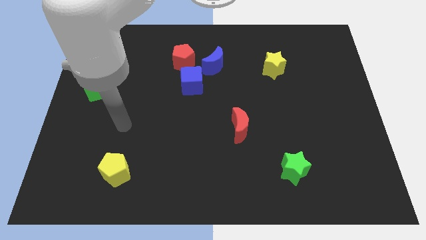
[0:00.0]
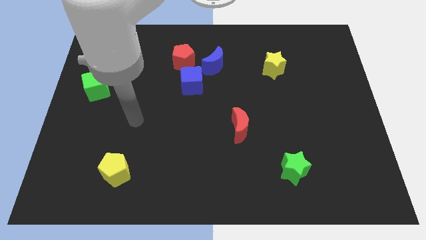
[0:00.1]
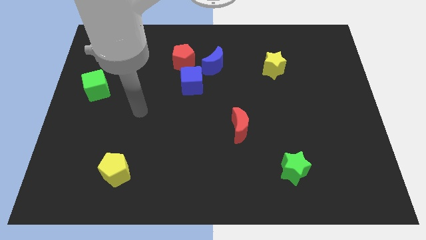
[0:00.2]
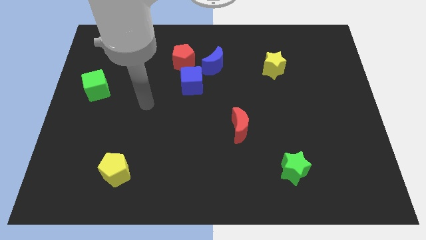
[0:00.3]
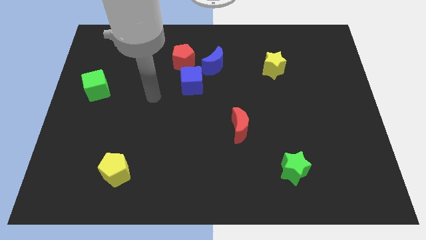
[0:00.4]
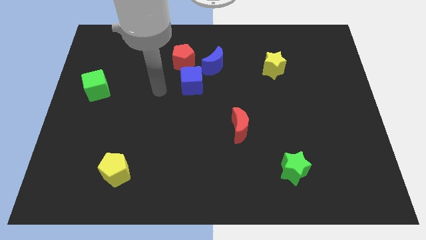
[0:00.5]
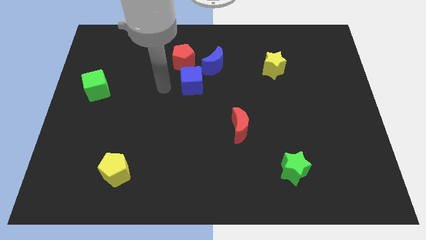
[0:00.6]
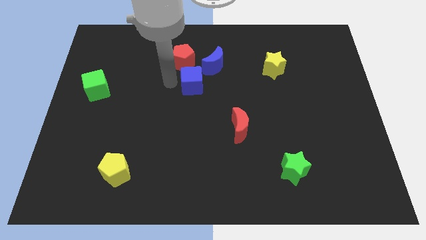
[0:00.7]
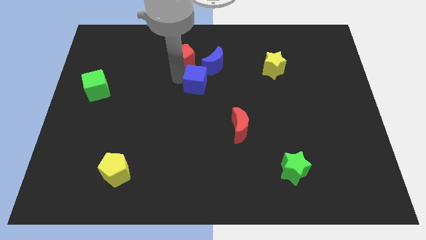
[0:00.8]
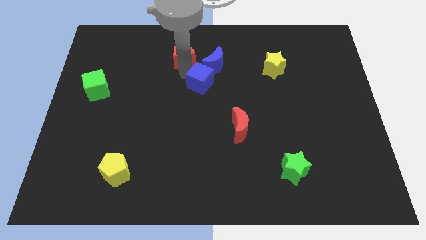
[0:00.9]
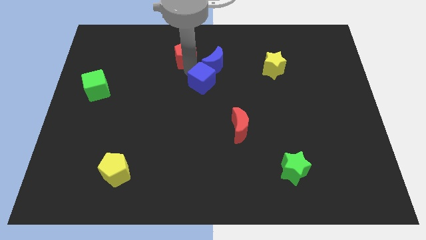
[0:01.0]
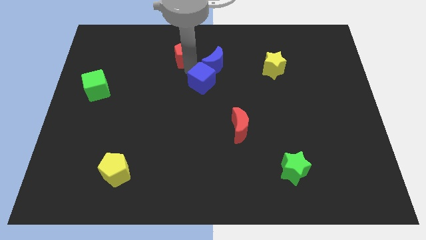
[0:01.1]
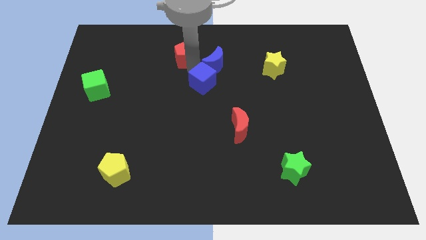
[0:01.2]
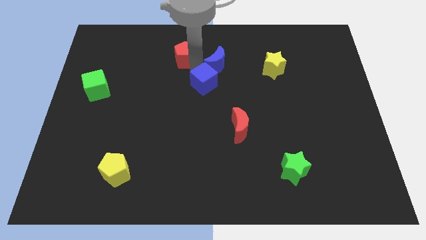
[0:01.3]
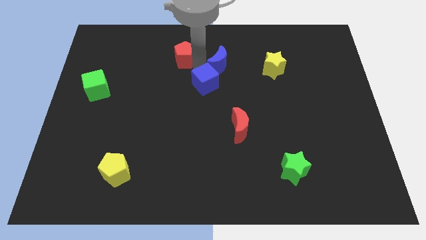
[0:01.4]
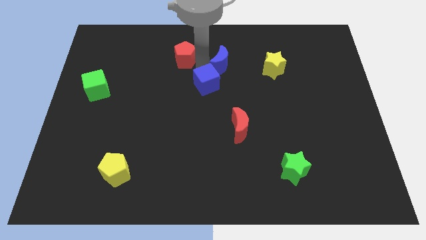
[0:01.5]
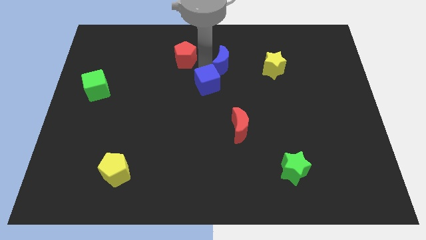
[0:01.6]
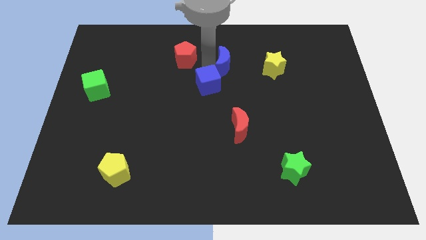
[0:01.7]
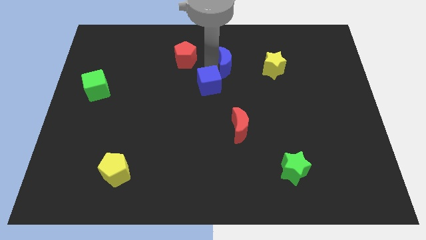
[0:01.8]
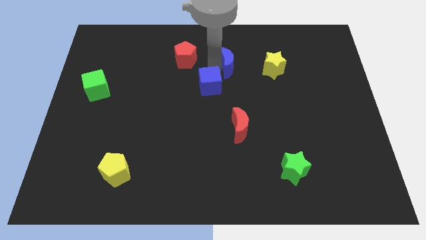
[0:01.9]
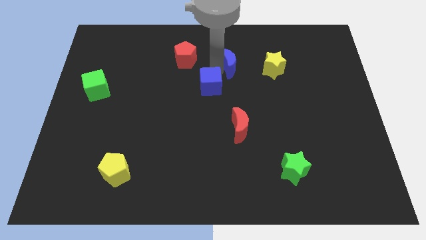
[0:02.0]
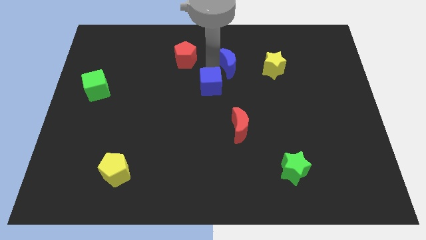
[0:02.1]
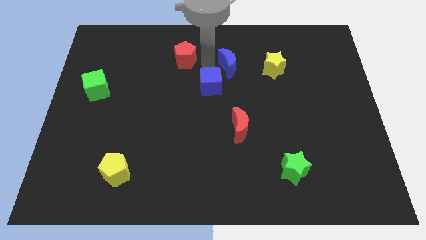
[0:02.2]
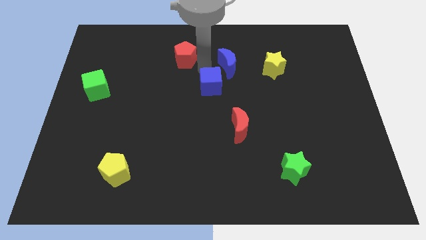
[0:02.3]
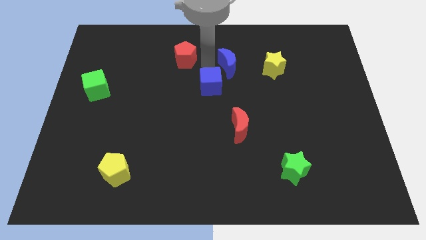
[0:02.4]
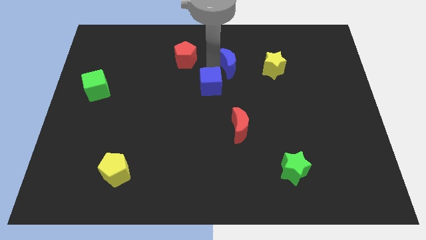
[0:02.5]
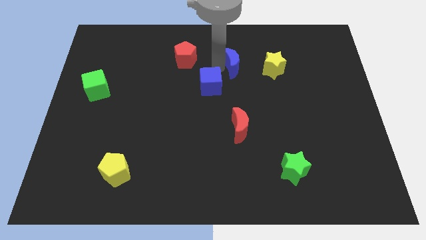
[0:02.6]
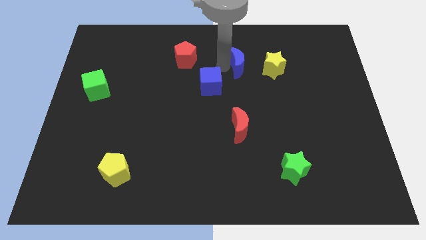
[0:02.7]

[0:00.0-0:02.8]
pull the blue moon apart from the red pentagon and blue cube

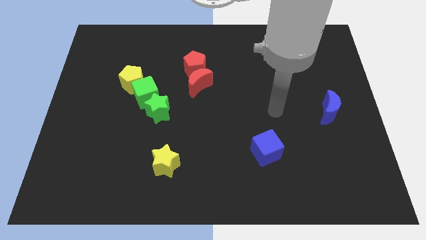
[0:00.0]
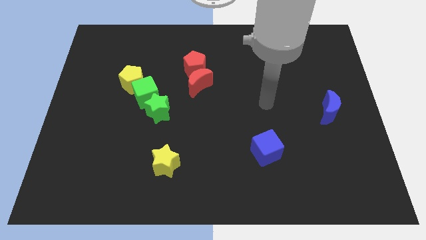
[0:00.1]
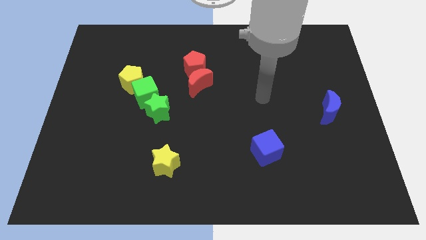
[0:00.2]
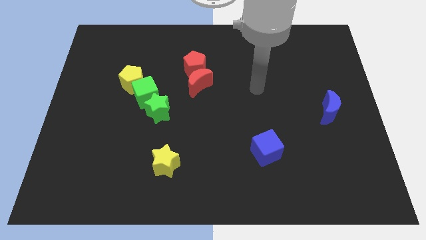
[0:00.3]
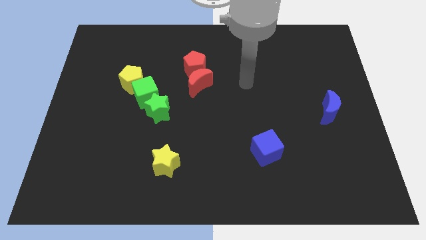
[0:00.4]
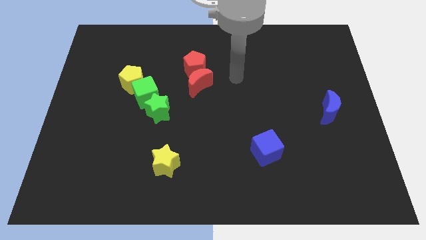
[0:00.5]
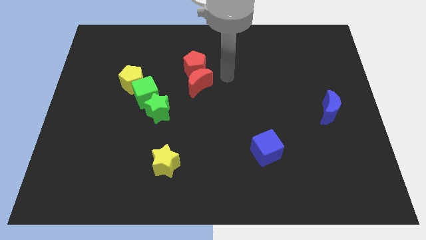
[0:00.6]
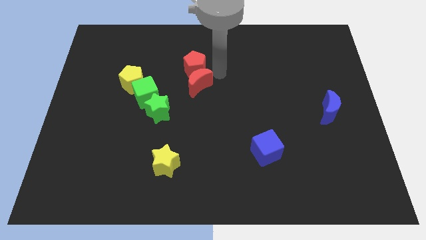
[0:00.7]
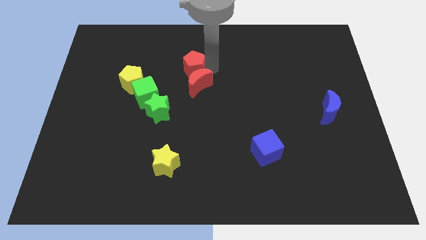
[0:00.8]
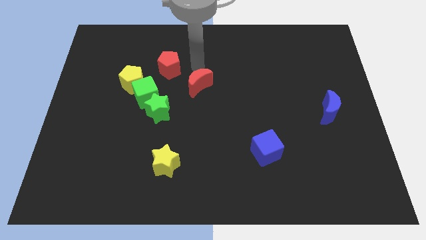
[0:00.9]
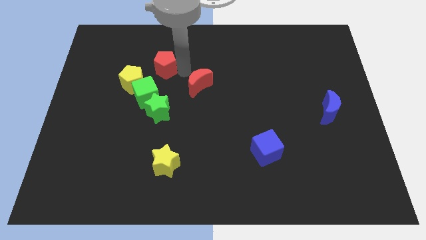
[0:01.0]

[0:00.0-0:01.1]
pull the red moon apart from the red pentagon

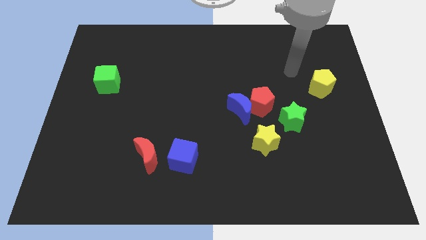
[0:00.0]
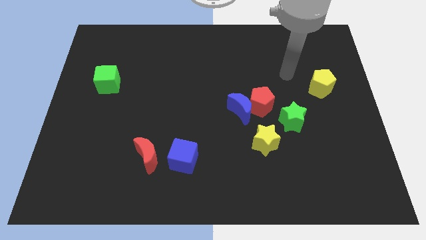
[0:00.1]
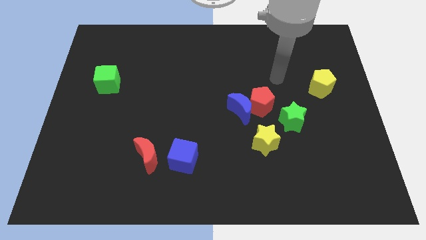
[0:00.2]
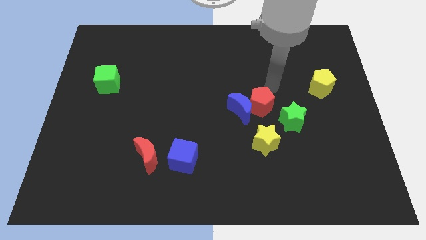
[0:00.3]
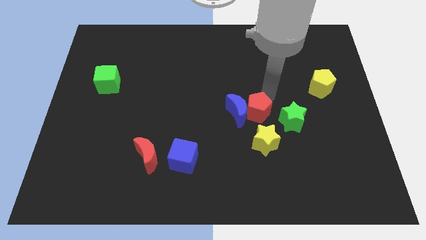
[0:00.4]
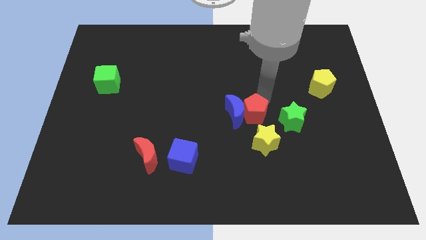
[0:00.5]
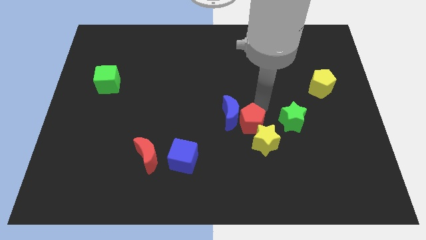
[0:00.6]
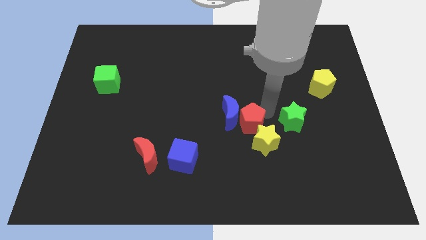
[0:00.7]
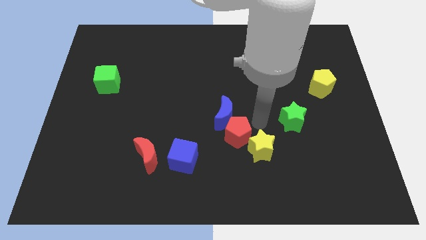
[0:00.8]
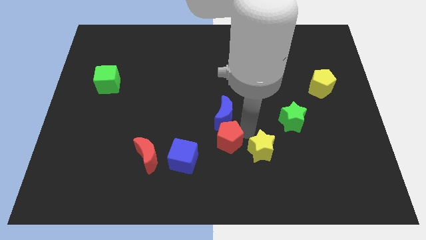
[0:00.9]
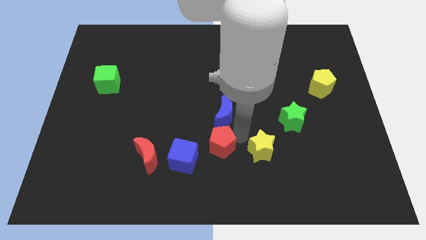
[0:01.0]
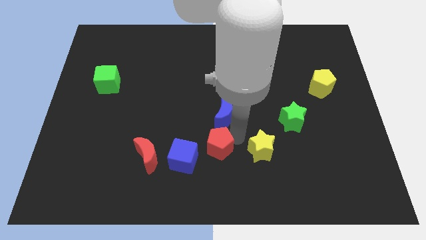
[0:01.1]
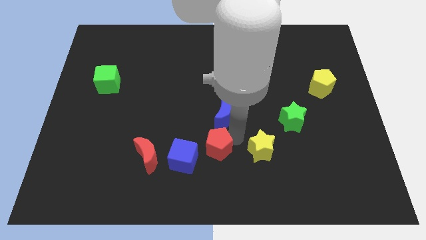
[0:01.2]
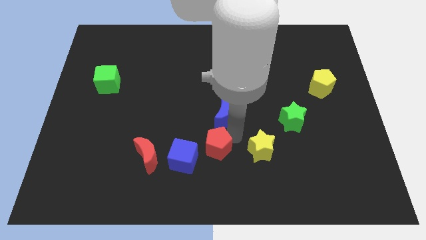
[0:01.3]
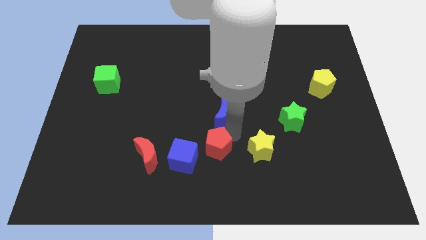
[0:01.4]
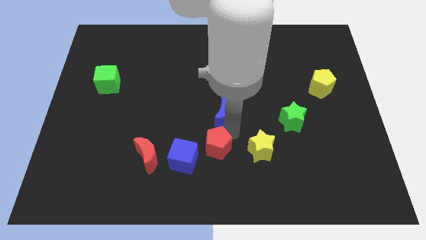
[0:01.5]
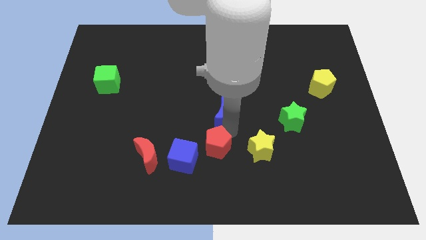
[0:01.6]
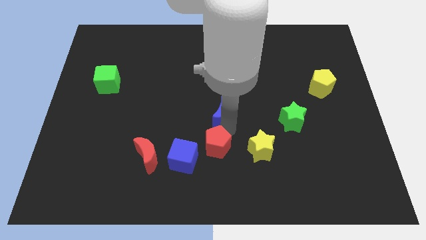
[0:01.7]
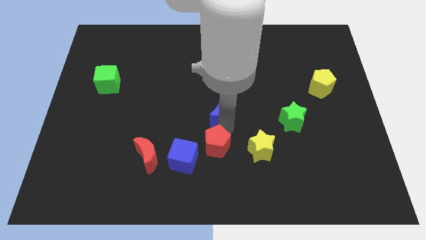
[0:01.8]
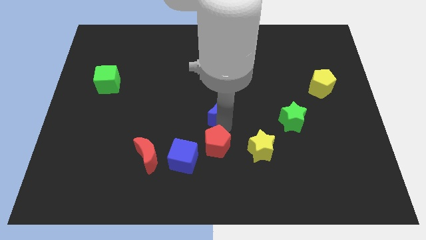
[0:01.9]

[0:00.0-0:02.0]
separate the blue moon from the red pentagon and yellow star

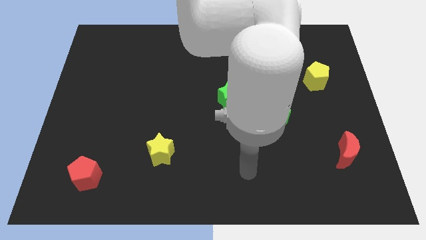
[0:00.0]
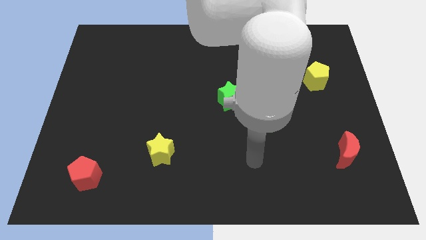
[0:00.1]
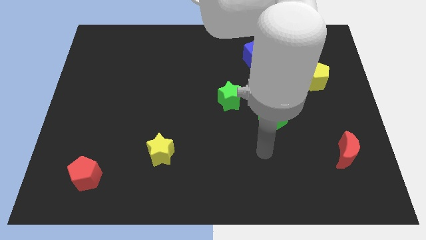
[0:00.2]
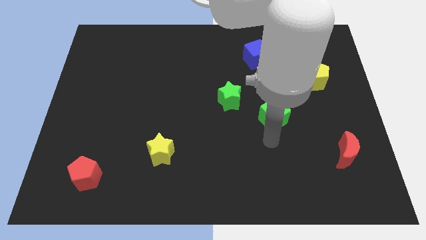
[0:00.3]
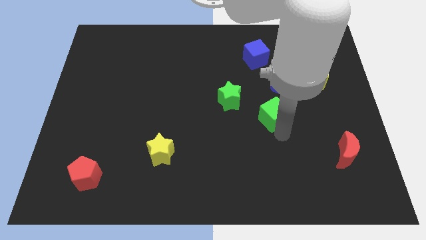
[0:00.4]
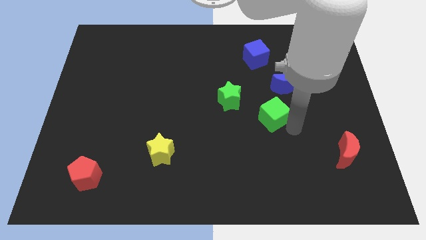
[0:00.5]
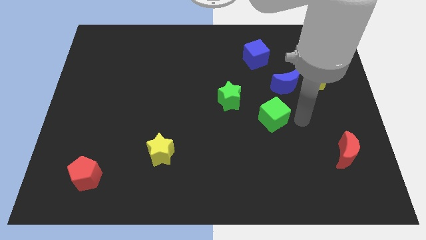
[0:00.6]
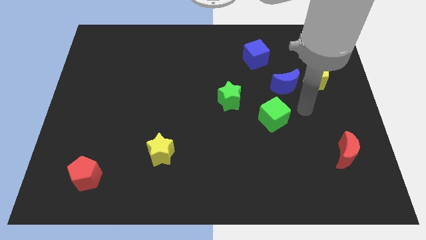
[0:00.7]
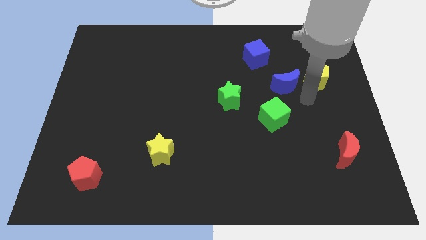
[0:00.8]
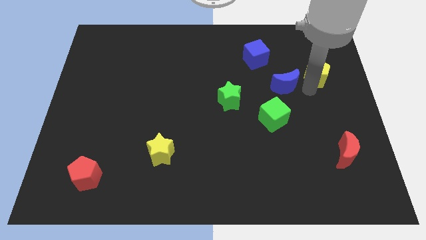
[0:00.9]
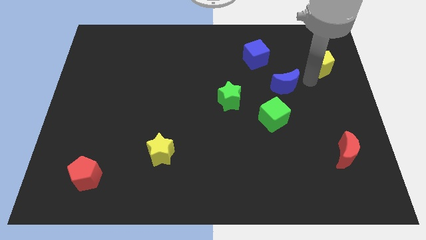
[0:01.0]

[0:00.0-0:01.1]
pull the blue moon apart from the yellow pentagon

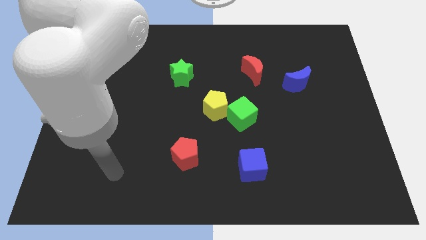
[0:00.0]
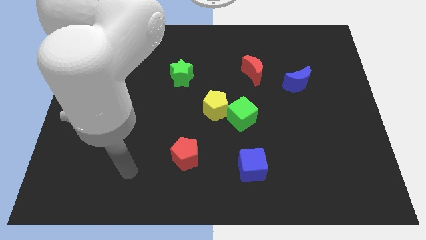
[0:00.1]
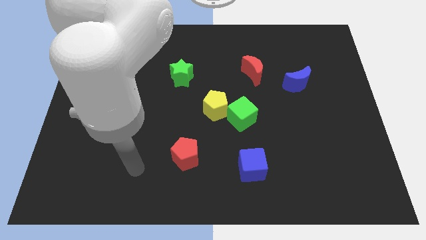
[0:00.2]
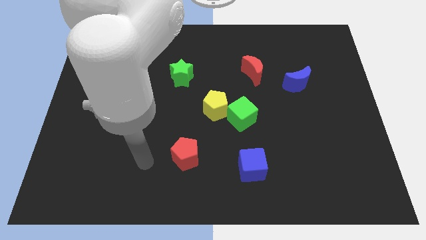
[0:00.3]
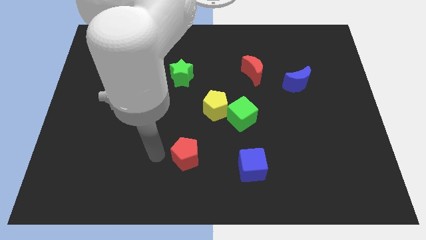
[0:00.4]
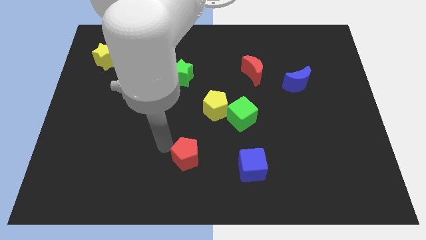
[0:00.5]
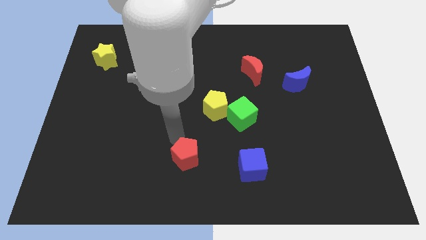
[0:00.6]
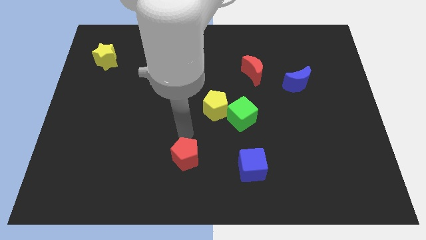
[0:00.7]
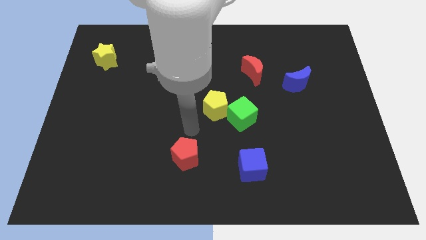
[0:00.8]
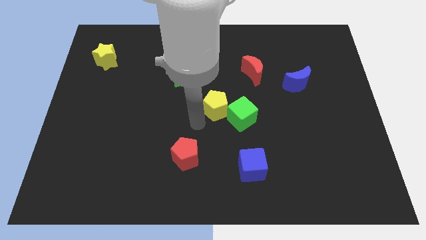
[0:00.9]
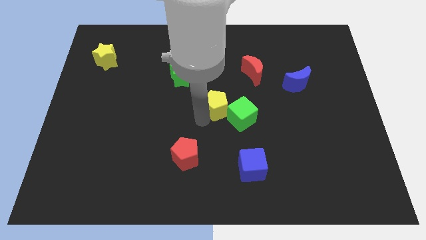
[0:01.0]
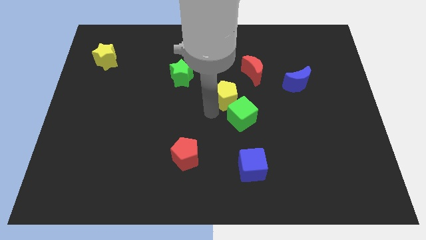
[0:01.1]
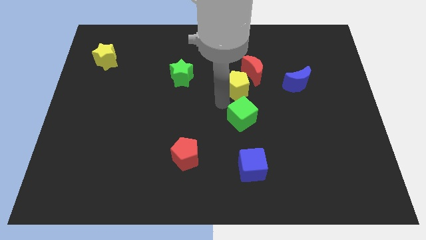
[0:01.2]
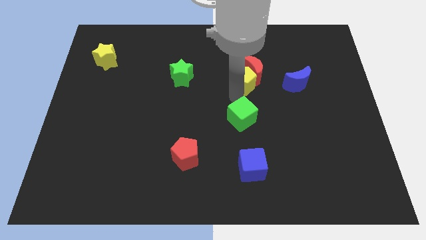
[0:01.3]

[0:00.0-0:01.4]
move the green cube away from the yellow pentagon

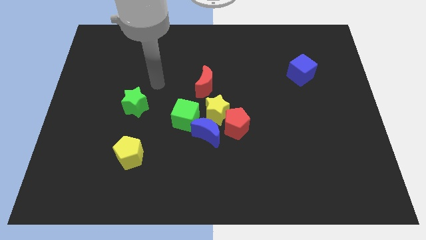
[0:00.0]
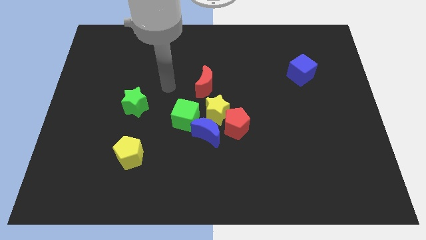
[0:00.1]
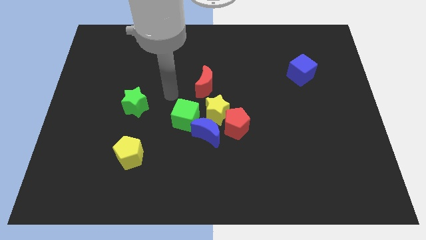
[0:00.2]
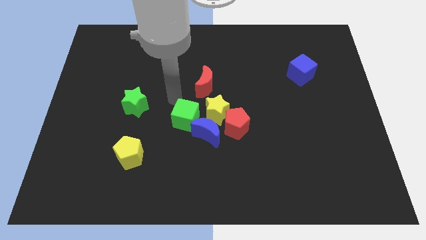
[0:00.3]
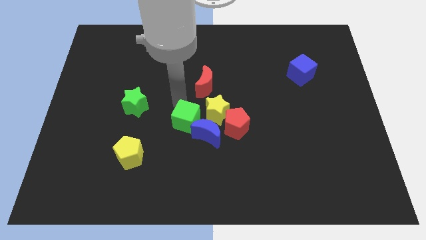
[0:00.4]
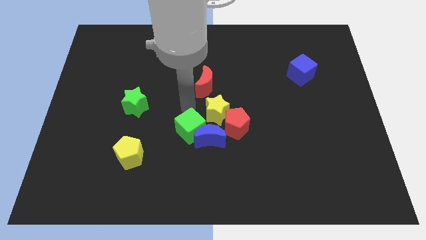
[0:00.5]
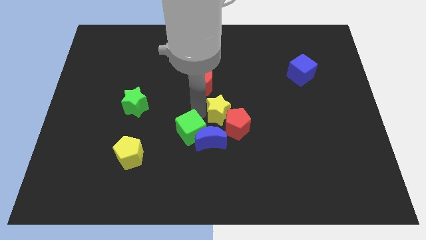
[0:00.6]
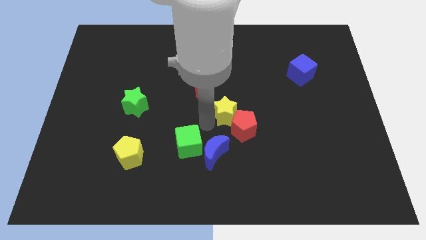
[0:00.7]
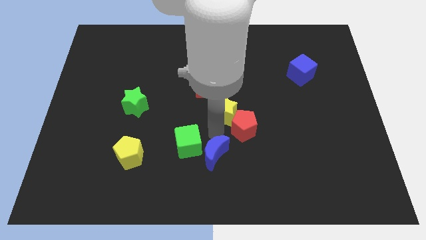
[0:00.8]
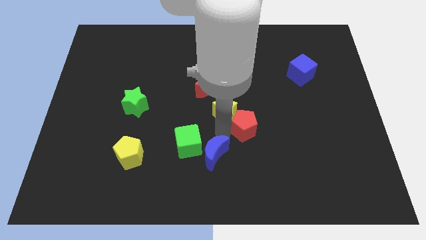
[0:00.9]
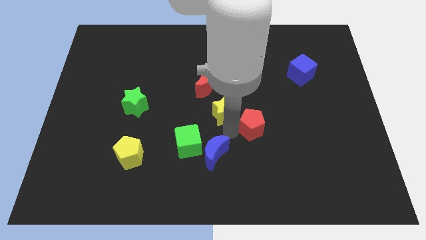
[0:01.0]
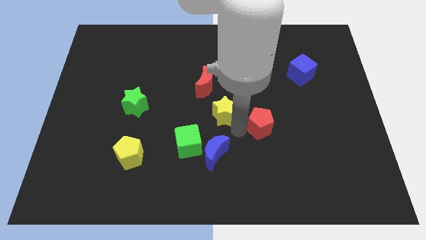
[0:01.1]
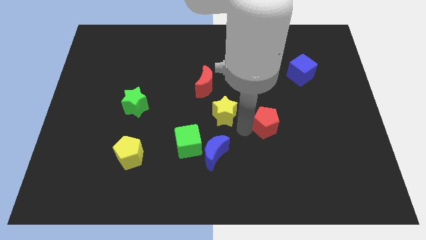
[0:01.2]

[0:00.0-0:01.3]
move the red pentagon away from the yellow star and blue moon
